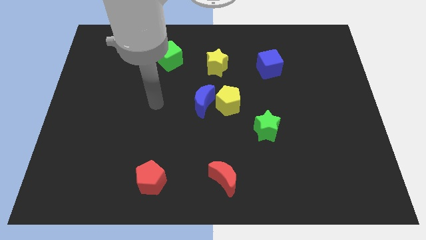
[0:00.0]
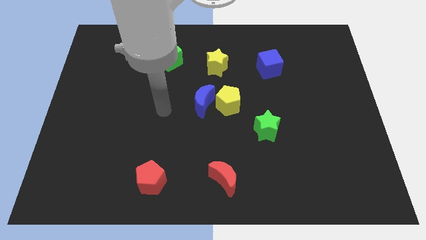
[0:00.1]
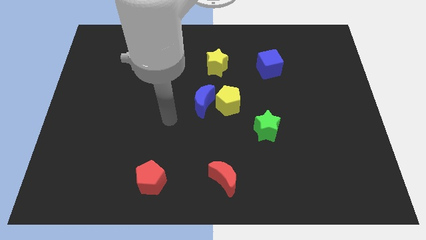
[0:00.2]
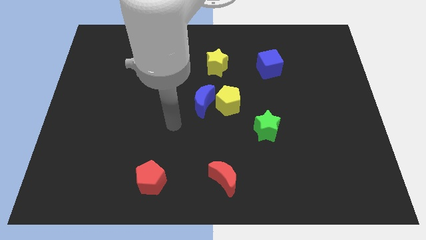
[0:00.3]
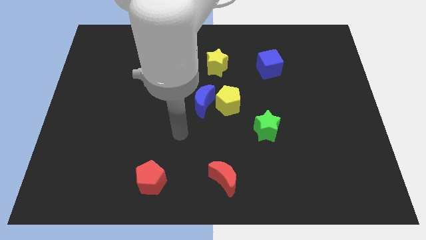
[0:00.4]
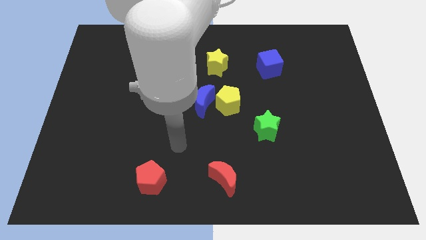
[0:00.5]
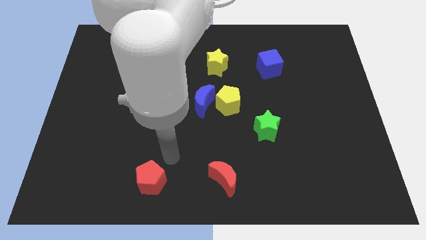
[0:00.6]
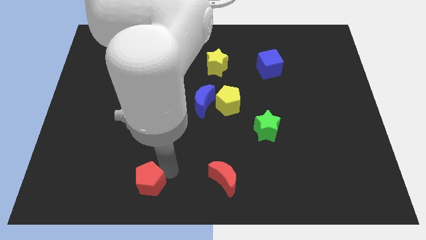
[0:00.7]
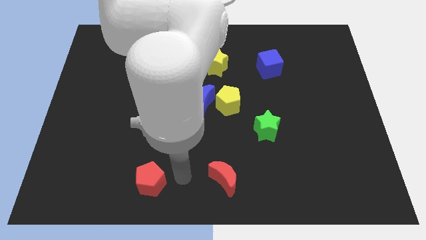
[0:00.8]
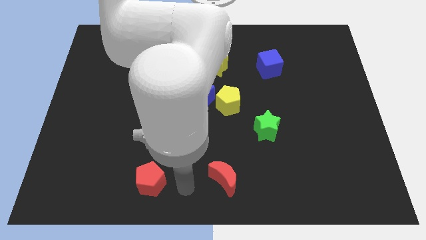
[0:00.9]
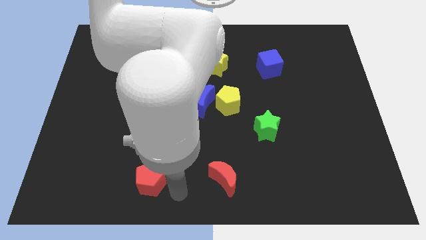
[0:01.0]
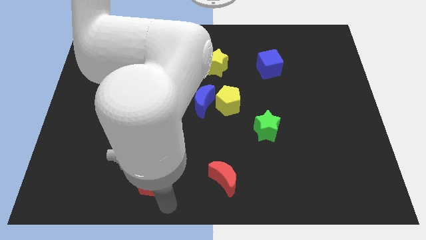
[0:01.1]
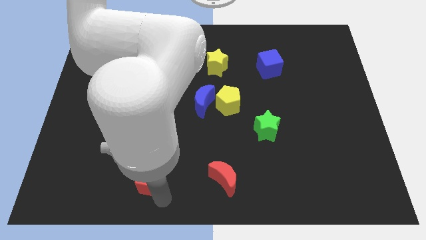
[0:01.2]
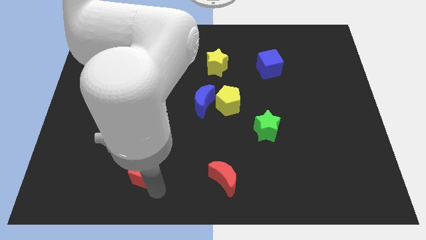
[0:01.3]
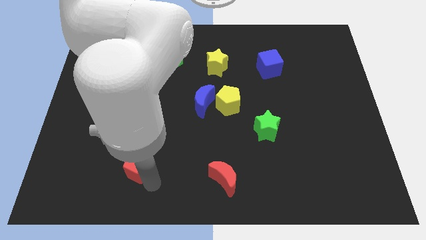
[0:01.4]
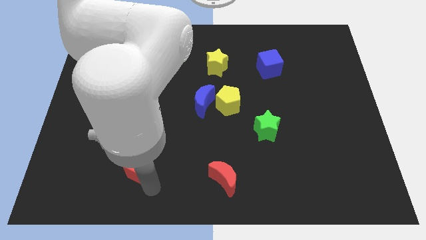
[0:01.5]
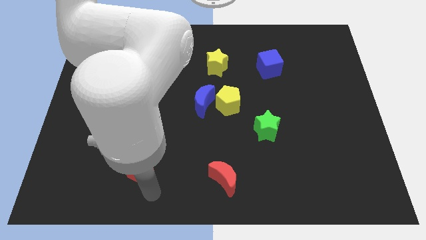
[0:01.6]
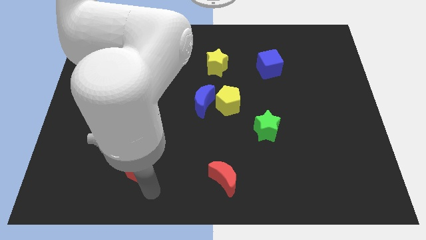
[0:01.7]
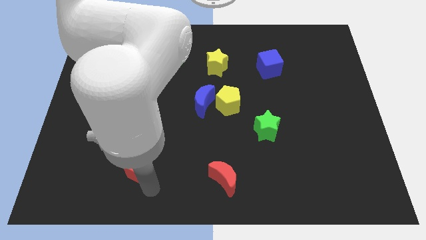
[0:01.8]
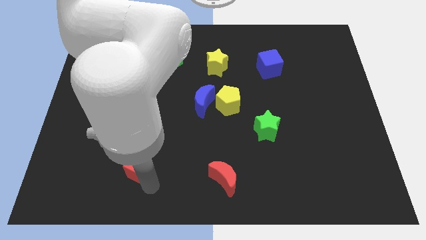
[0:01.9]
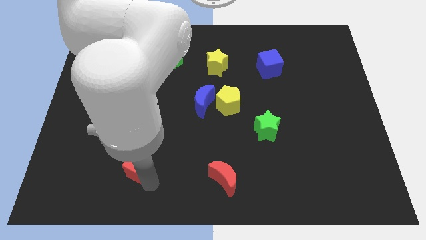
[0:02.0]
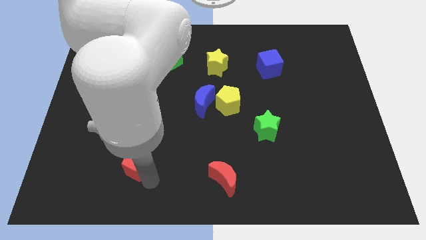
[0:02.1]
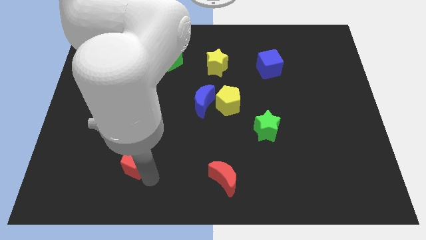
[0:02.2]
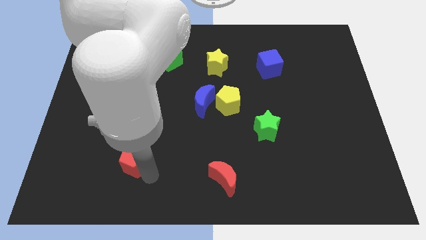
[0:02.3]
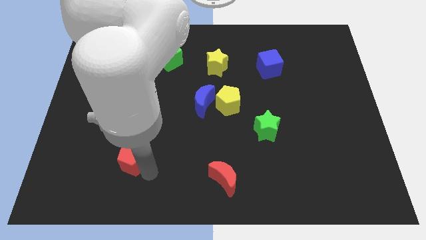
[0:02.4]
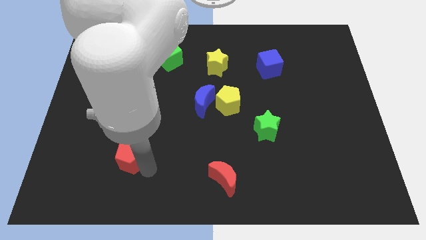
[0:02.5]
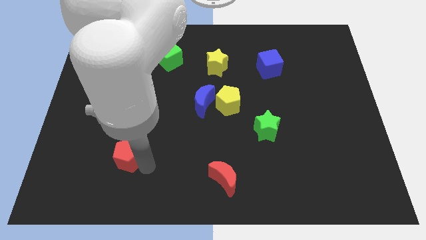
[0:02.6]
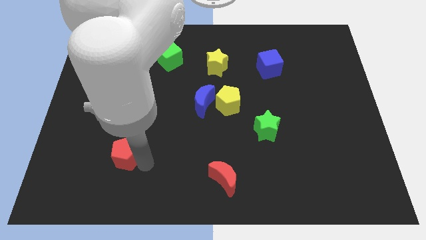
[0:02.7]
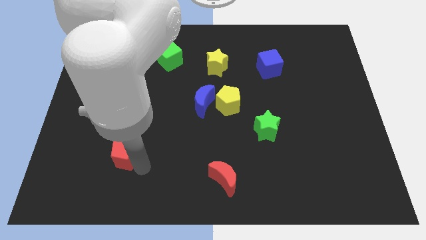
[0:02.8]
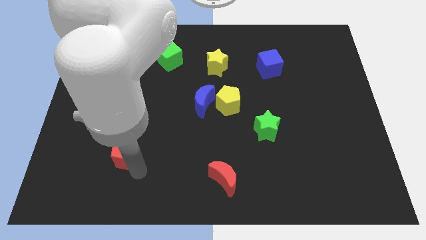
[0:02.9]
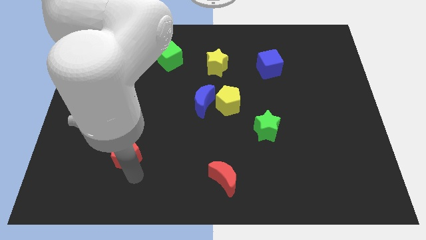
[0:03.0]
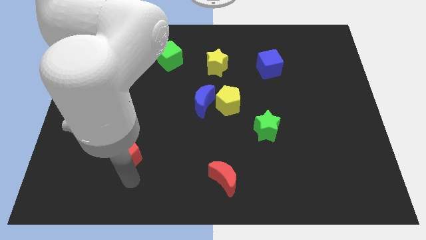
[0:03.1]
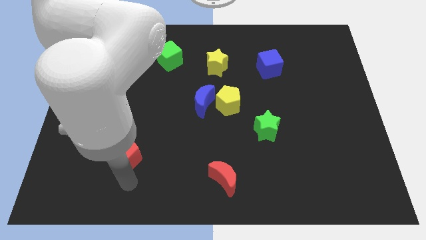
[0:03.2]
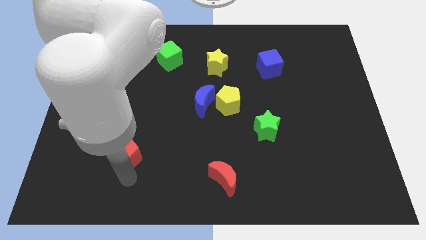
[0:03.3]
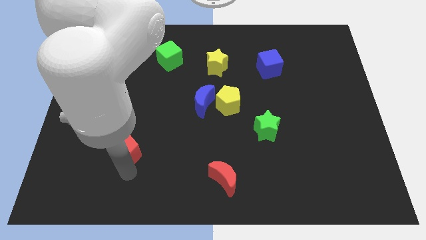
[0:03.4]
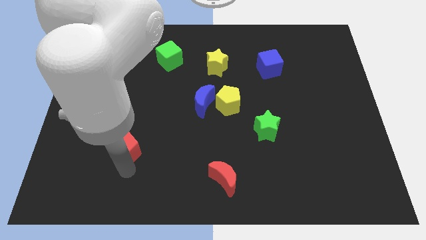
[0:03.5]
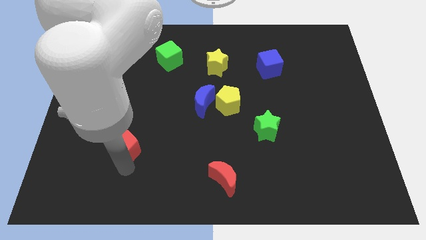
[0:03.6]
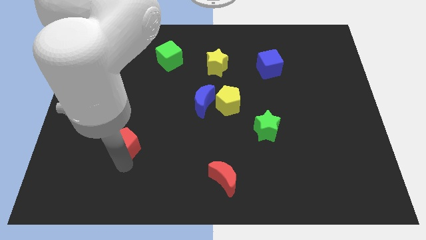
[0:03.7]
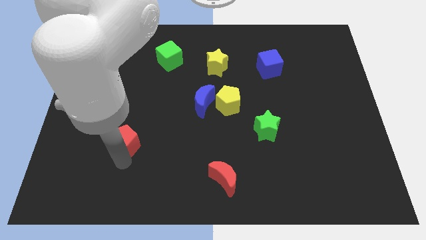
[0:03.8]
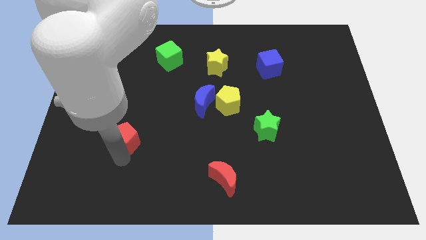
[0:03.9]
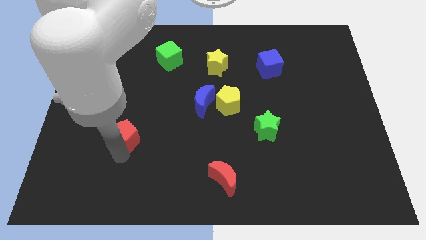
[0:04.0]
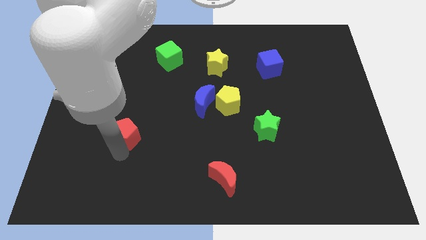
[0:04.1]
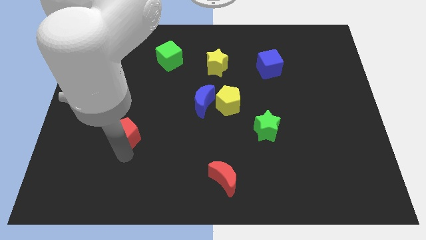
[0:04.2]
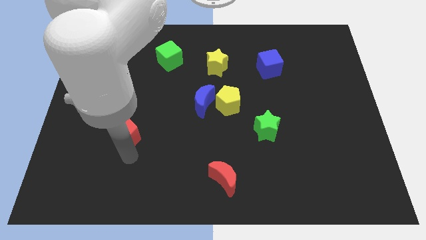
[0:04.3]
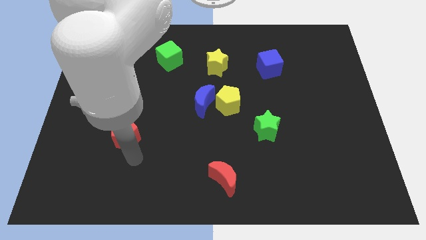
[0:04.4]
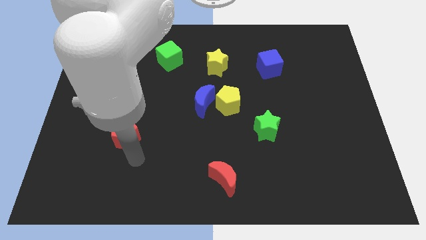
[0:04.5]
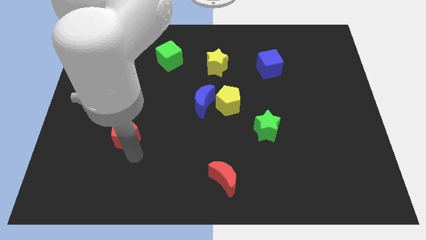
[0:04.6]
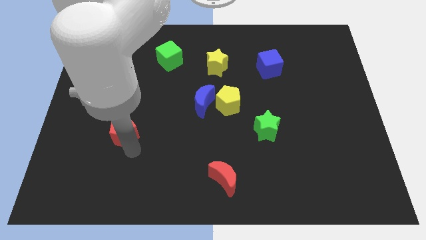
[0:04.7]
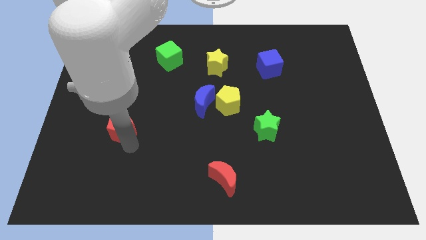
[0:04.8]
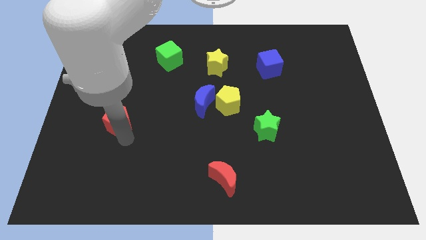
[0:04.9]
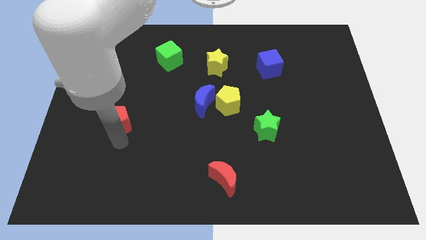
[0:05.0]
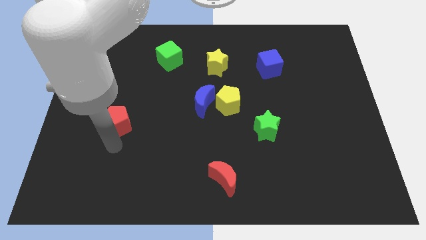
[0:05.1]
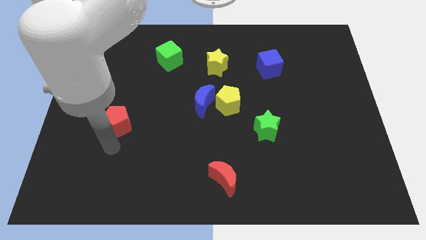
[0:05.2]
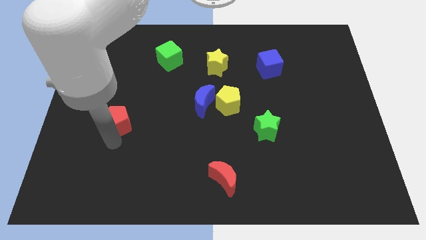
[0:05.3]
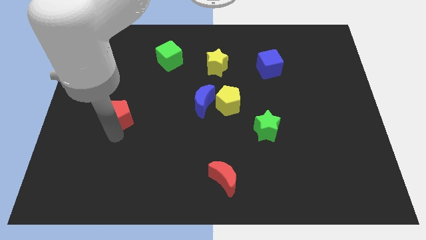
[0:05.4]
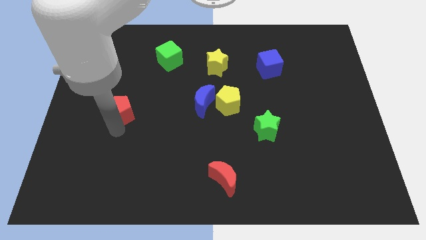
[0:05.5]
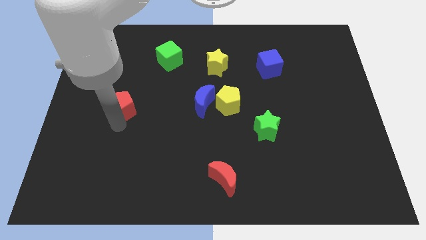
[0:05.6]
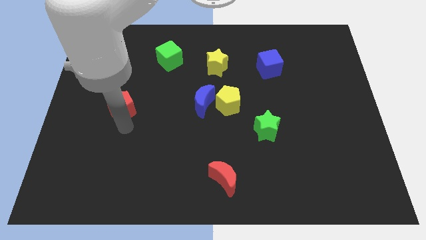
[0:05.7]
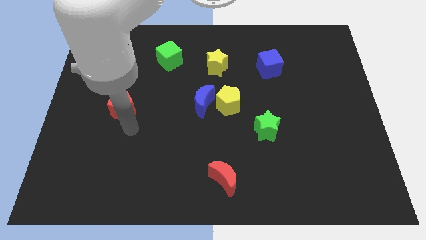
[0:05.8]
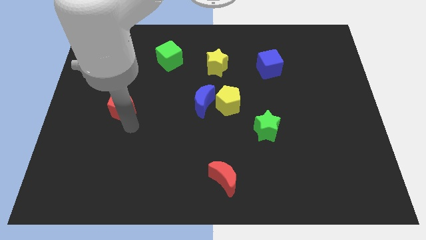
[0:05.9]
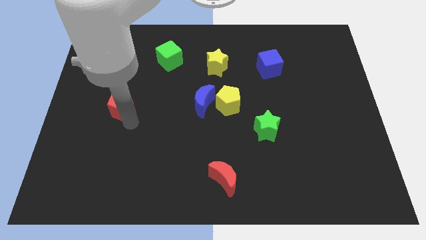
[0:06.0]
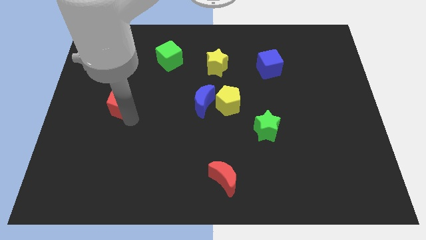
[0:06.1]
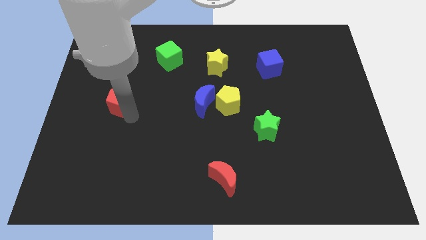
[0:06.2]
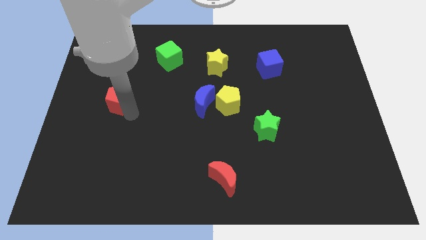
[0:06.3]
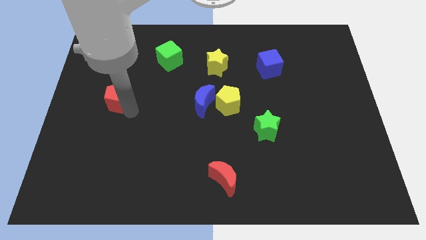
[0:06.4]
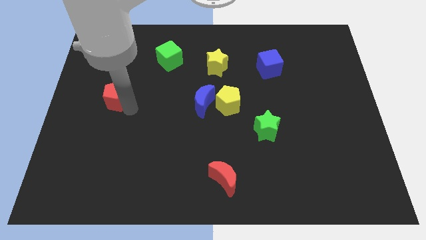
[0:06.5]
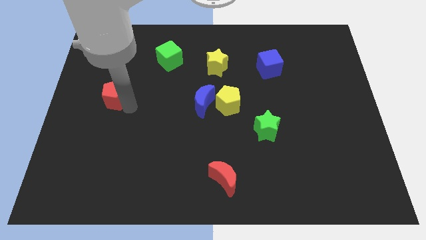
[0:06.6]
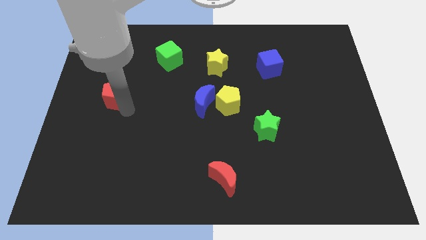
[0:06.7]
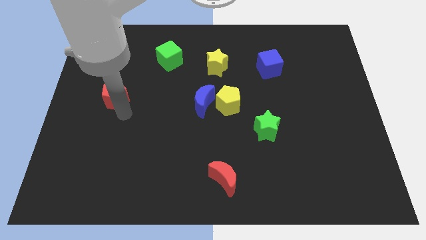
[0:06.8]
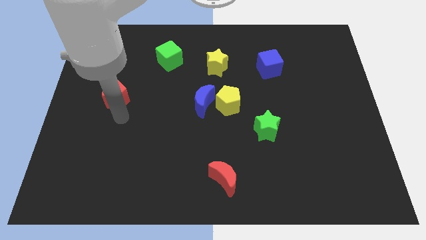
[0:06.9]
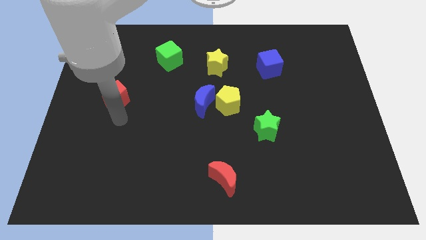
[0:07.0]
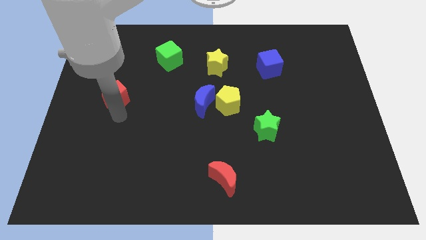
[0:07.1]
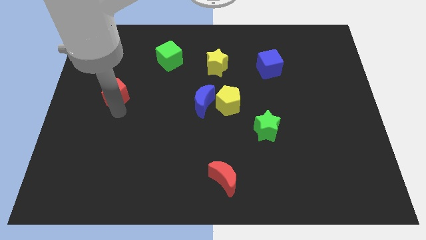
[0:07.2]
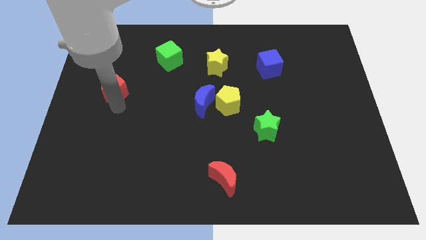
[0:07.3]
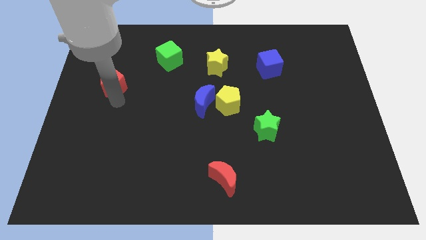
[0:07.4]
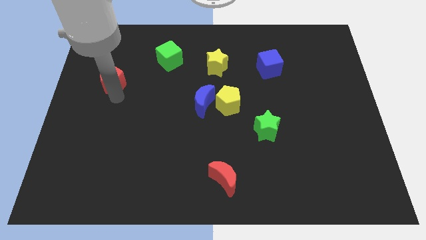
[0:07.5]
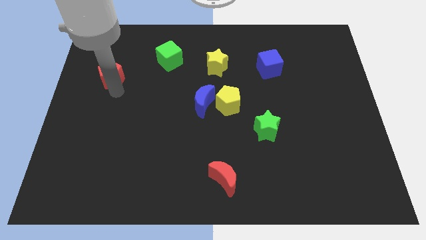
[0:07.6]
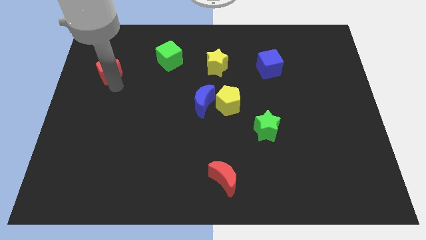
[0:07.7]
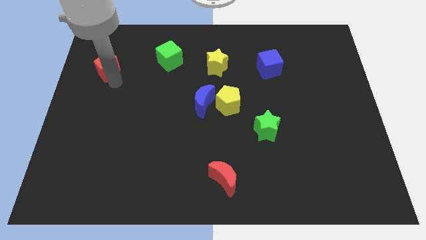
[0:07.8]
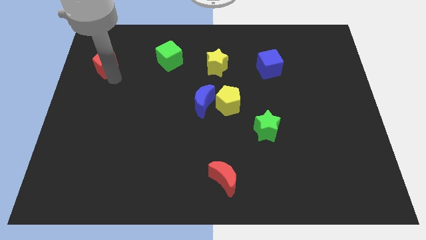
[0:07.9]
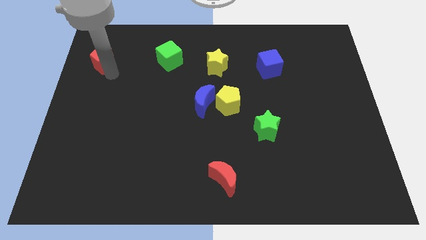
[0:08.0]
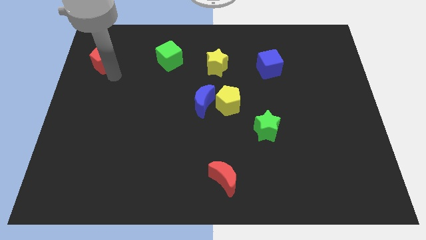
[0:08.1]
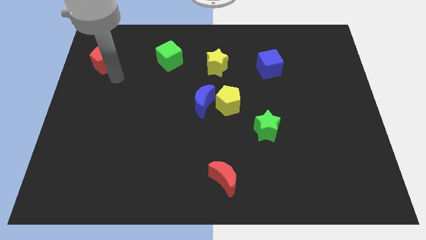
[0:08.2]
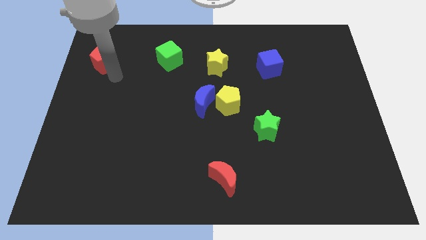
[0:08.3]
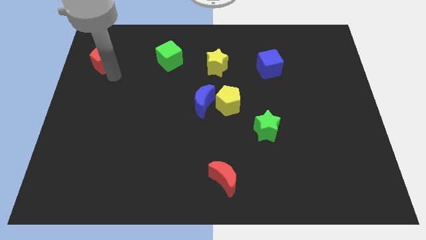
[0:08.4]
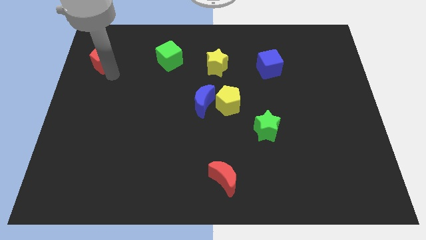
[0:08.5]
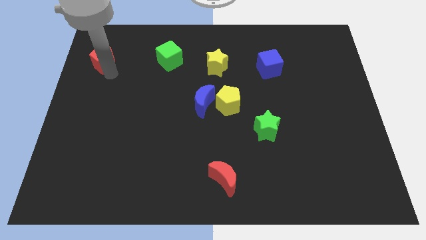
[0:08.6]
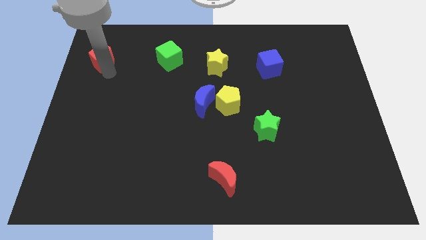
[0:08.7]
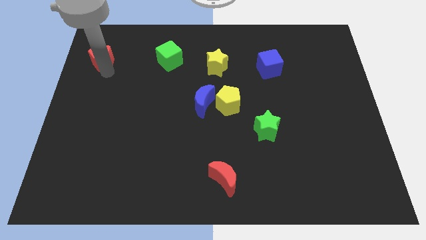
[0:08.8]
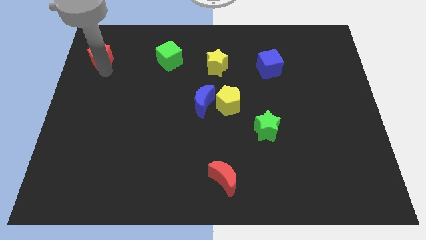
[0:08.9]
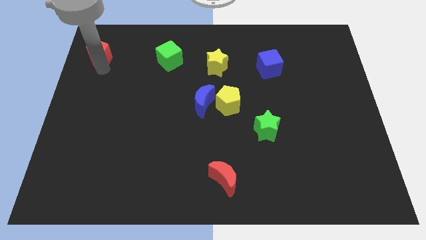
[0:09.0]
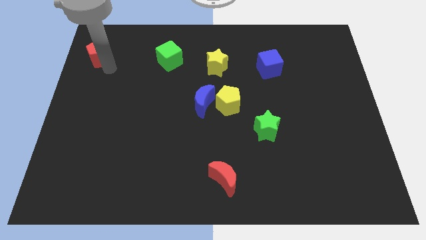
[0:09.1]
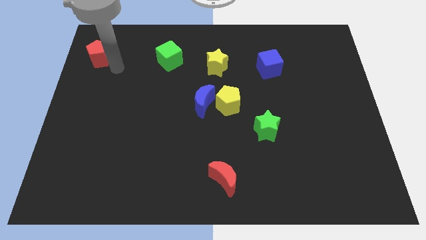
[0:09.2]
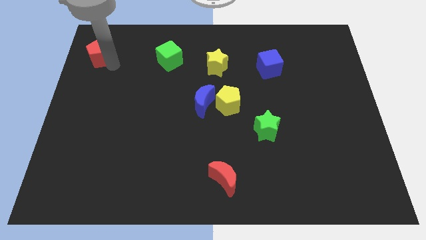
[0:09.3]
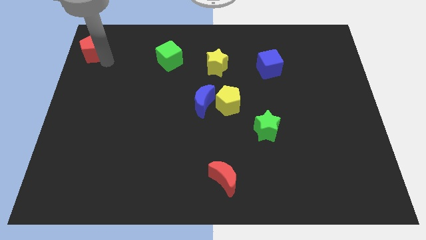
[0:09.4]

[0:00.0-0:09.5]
move the red pentagon to the upper left corner
